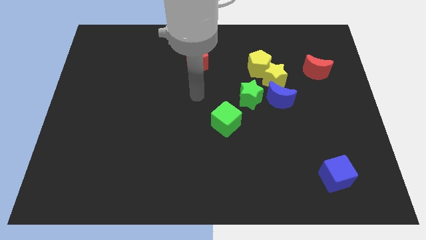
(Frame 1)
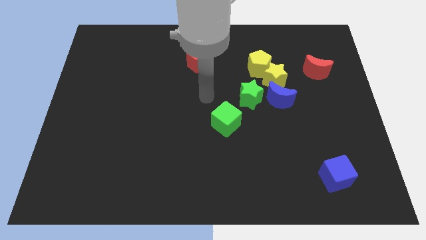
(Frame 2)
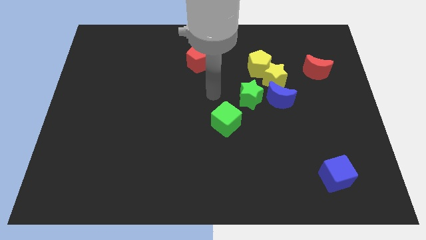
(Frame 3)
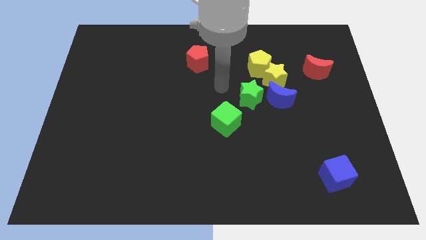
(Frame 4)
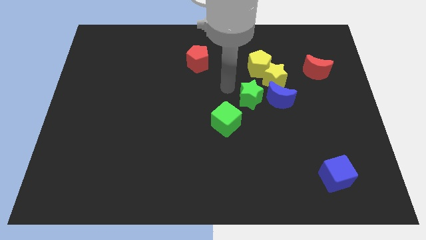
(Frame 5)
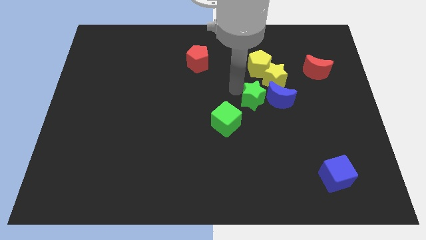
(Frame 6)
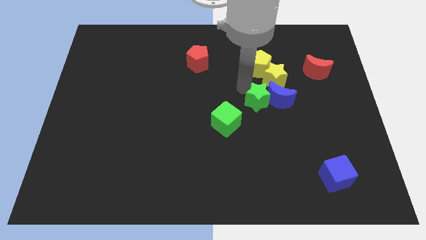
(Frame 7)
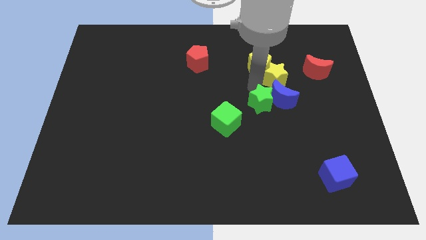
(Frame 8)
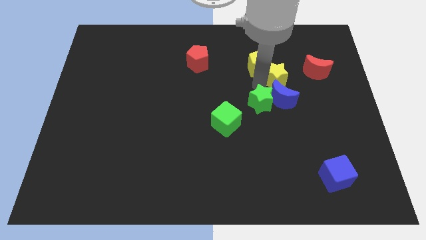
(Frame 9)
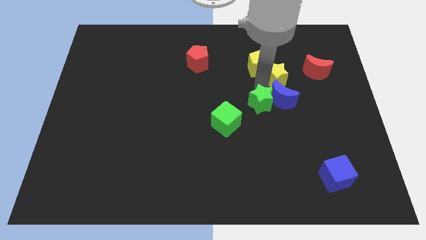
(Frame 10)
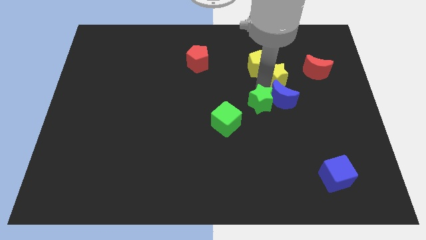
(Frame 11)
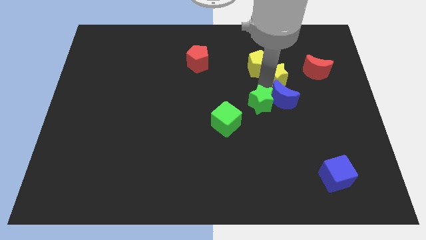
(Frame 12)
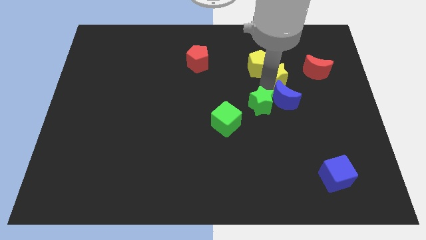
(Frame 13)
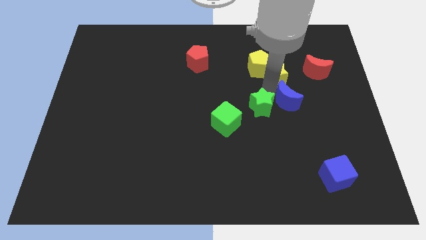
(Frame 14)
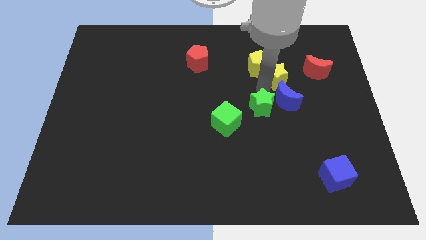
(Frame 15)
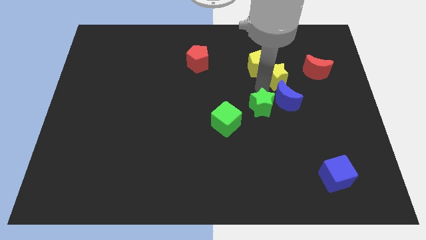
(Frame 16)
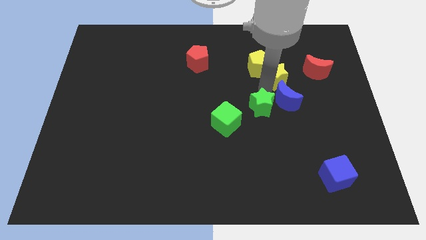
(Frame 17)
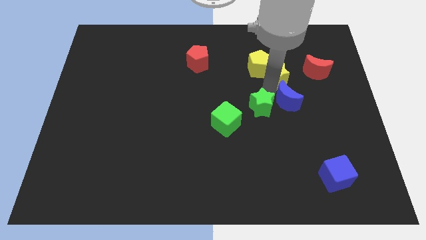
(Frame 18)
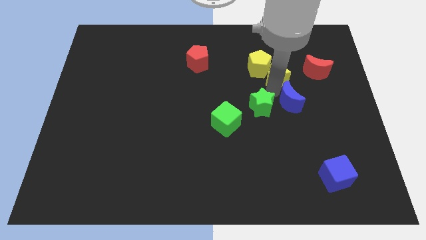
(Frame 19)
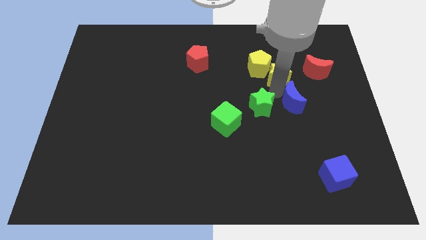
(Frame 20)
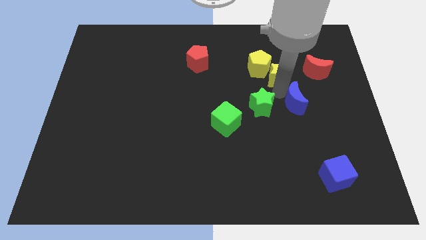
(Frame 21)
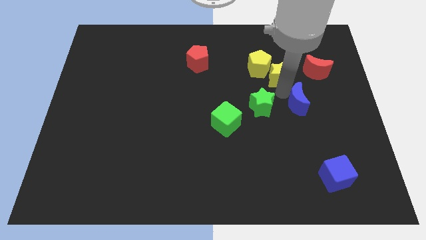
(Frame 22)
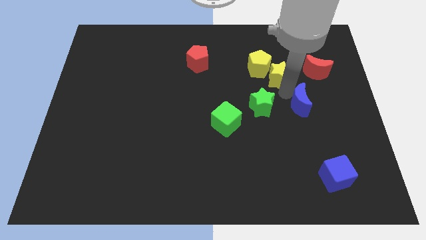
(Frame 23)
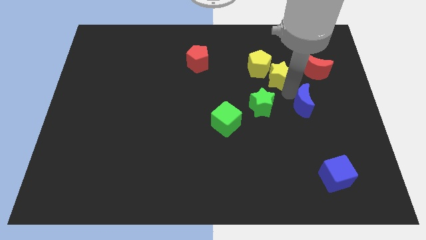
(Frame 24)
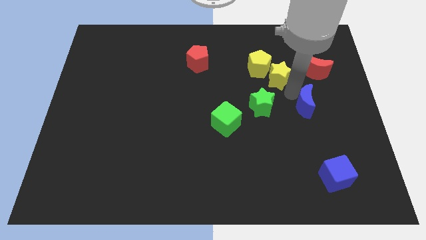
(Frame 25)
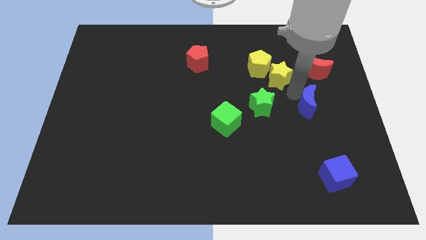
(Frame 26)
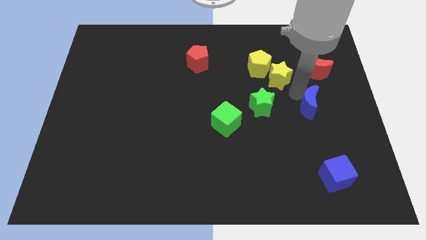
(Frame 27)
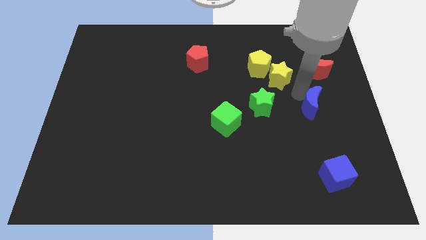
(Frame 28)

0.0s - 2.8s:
pull the blue moon apart from the yellow star and green star

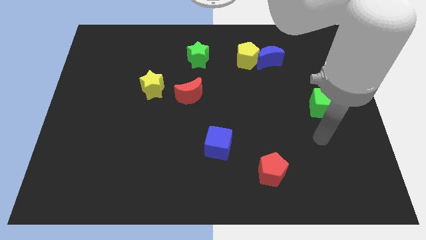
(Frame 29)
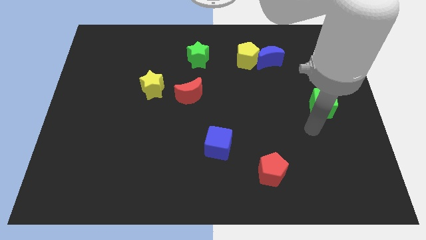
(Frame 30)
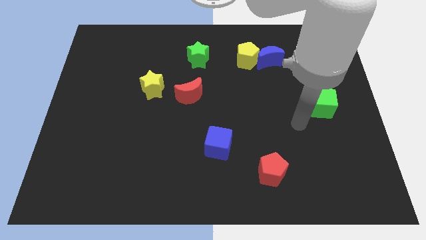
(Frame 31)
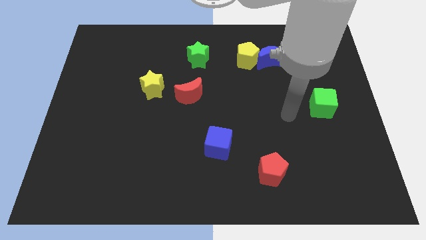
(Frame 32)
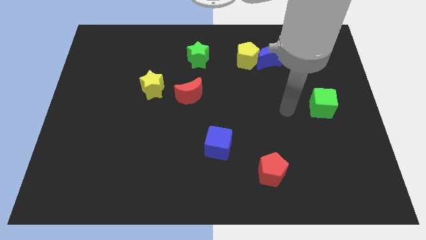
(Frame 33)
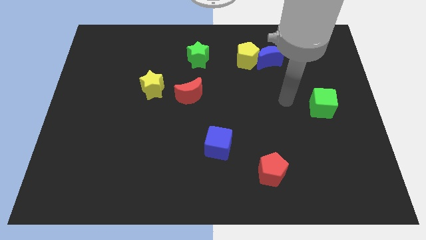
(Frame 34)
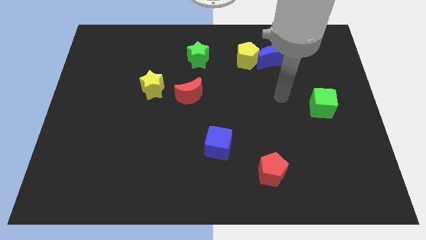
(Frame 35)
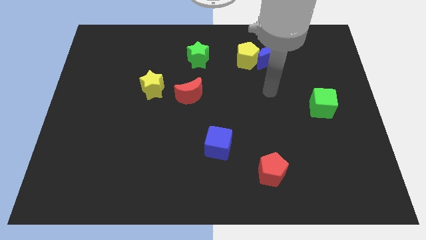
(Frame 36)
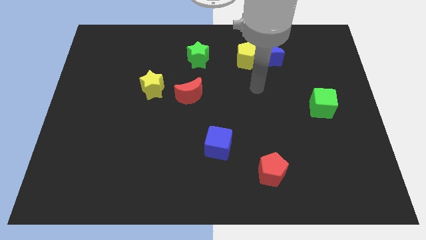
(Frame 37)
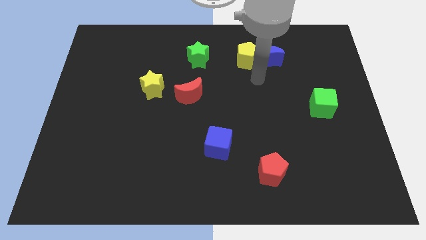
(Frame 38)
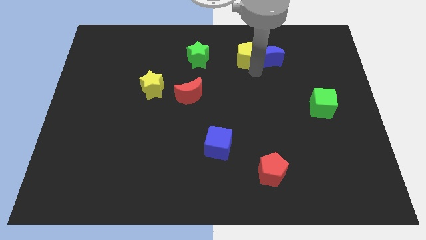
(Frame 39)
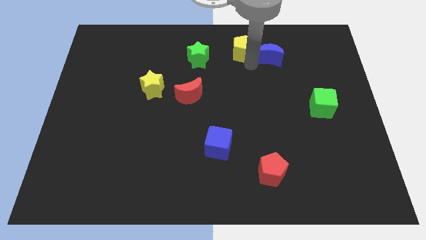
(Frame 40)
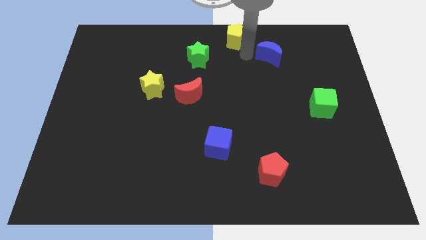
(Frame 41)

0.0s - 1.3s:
pull the blue moon apart from the yellow pentagon

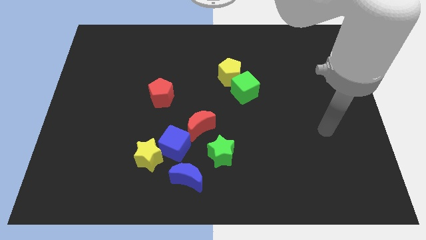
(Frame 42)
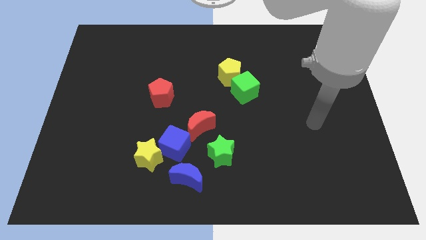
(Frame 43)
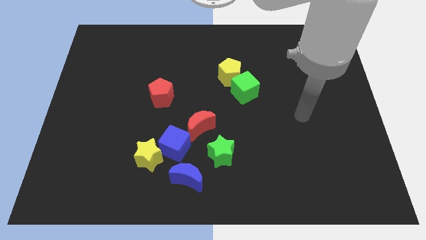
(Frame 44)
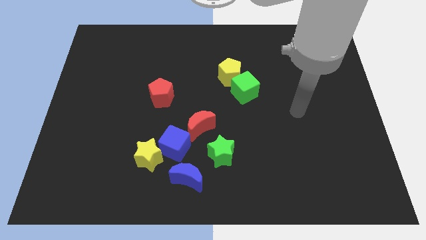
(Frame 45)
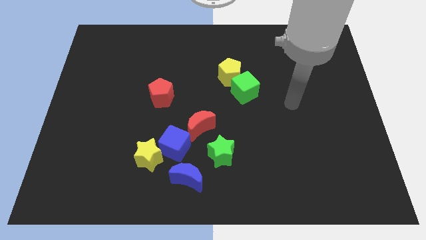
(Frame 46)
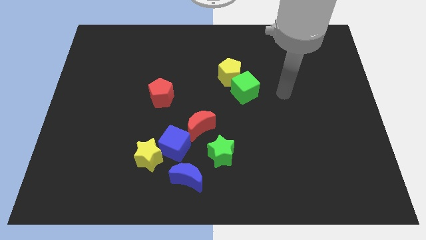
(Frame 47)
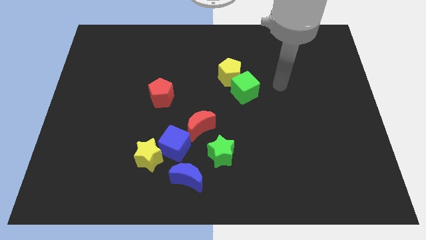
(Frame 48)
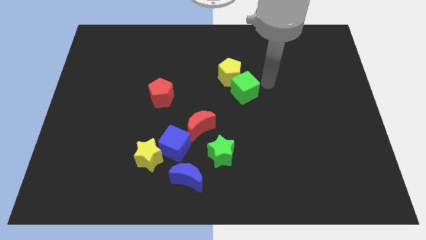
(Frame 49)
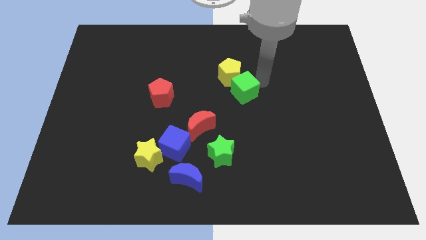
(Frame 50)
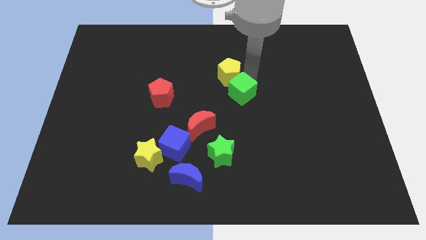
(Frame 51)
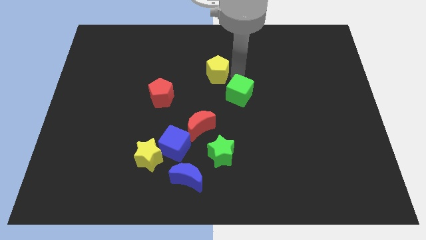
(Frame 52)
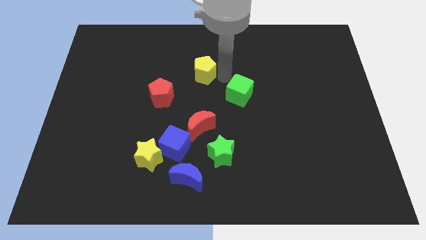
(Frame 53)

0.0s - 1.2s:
move the green cube away from the yellow pentagon

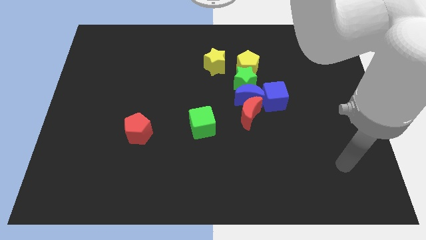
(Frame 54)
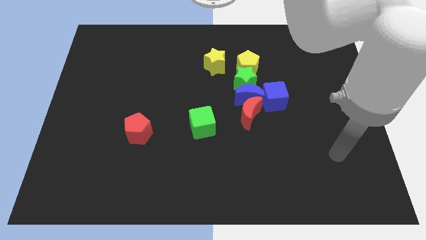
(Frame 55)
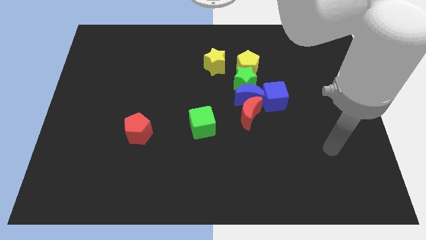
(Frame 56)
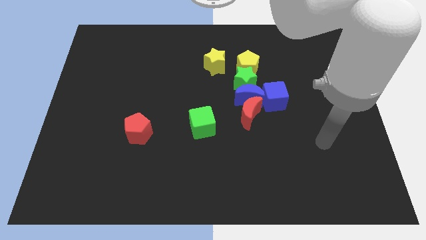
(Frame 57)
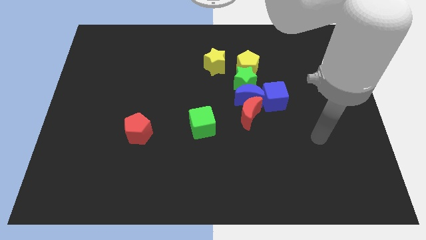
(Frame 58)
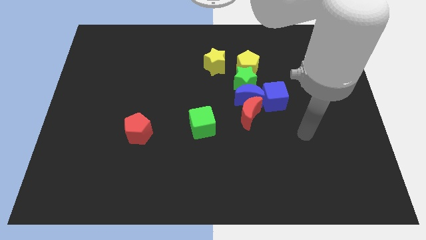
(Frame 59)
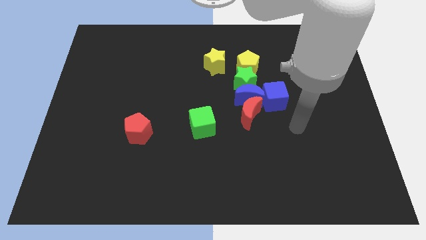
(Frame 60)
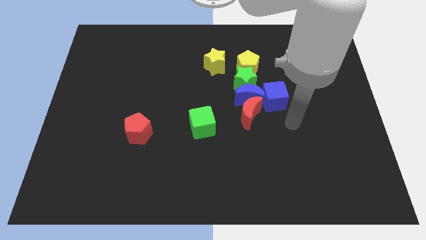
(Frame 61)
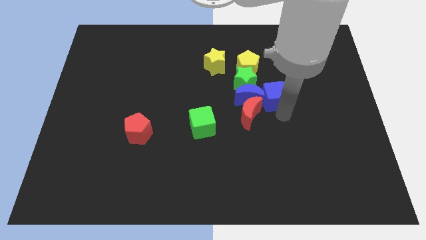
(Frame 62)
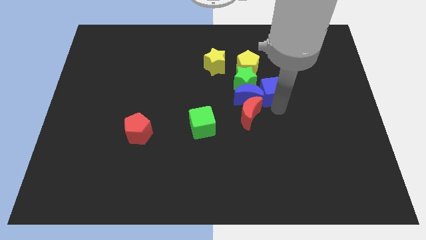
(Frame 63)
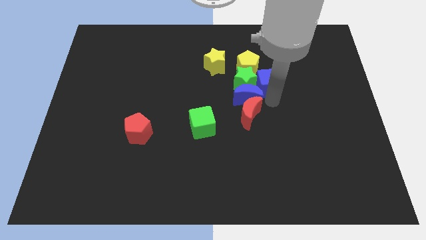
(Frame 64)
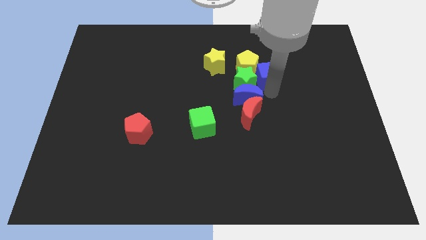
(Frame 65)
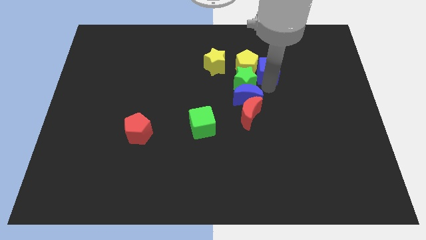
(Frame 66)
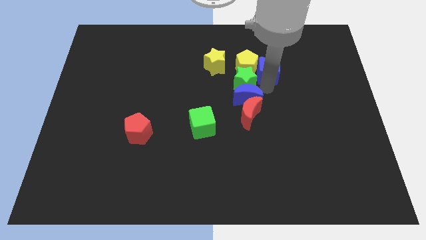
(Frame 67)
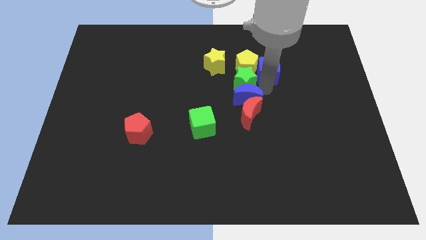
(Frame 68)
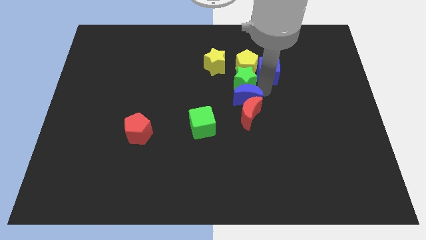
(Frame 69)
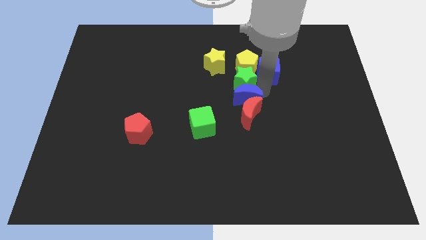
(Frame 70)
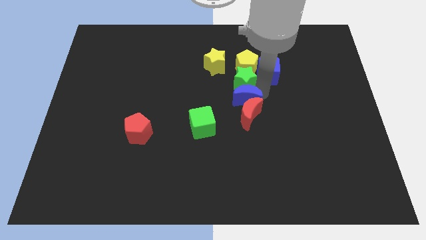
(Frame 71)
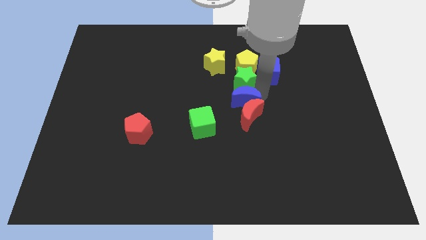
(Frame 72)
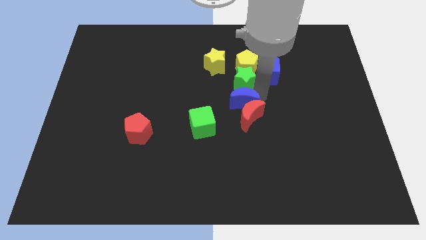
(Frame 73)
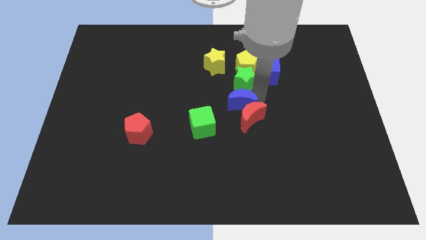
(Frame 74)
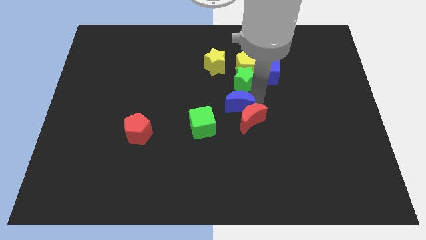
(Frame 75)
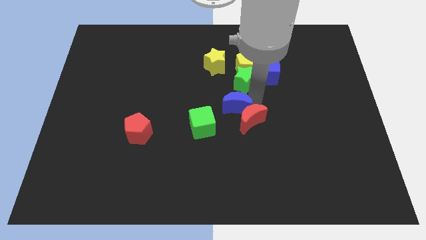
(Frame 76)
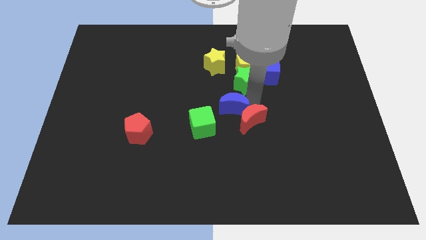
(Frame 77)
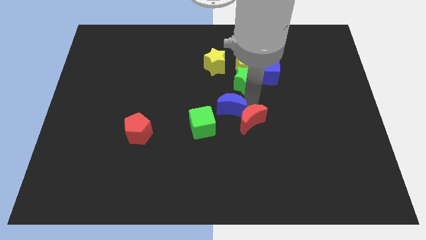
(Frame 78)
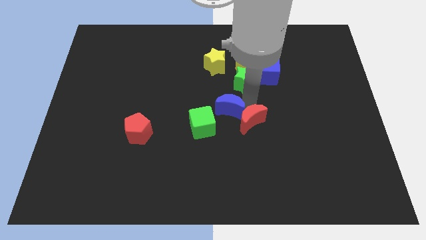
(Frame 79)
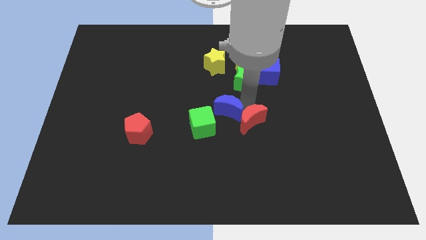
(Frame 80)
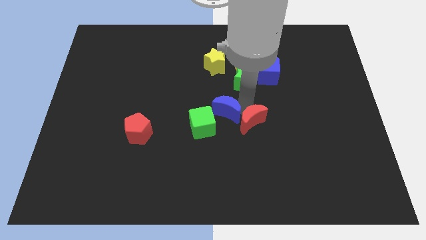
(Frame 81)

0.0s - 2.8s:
move the blue moon away from the group

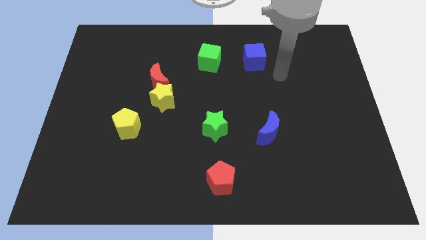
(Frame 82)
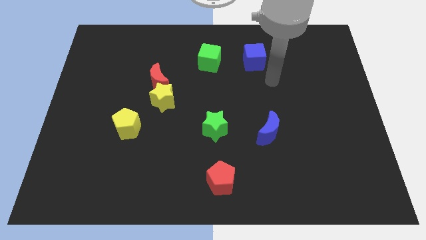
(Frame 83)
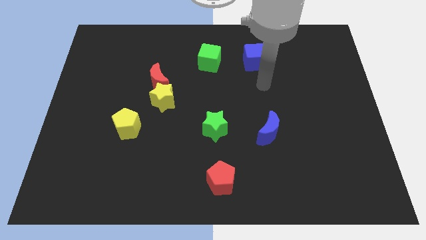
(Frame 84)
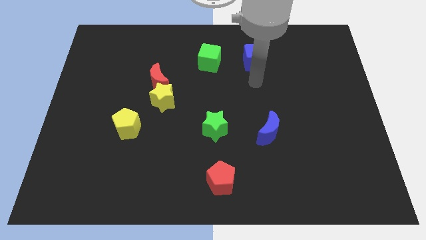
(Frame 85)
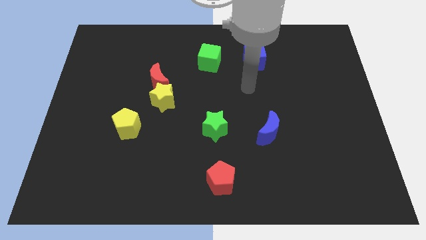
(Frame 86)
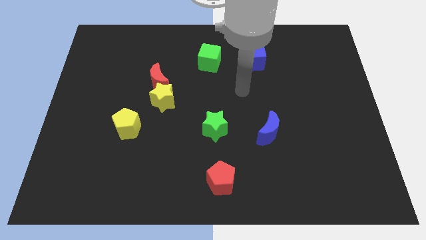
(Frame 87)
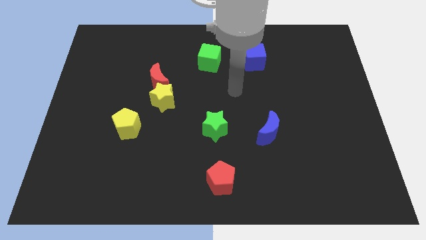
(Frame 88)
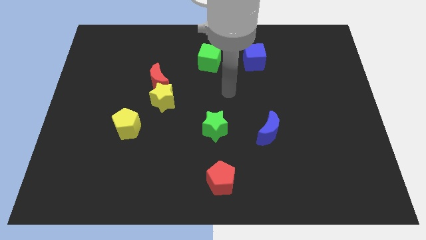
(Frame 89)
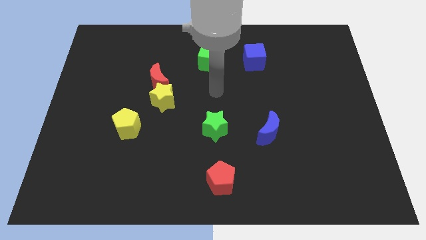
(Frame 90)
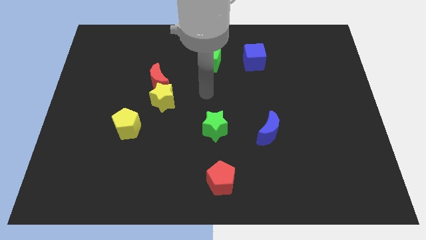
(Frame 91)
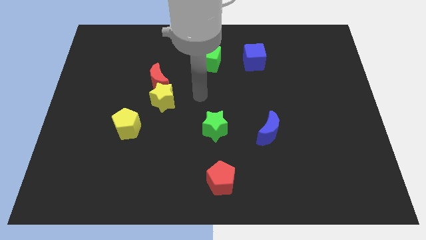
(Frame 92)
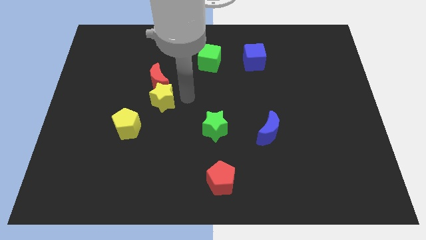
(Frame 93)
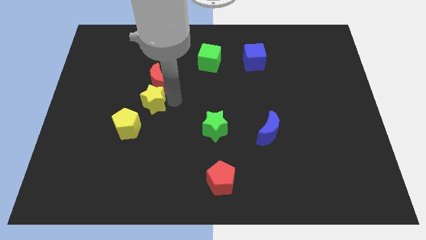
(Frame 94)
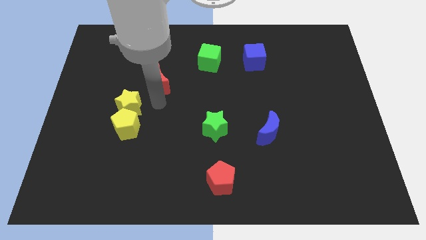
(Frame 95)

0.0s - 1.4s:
pull the red moon apart from the yellow star
